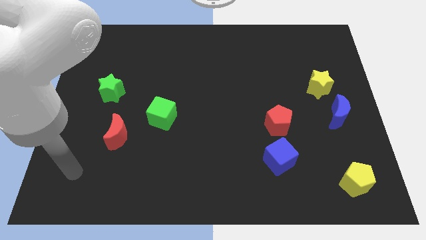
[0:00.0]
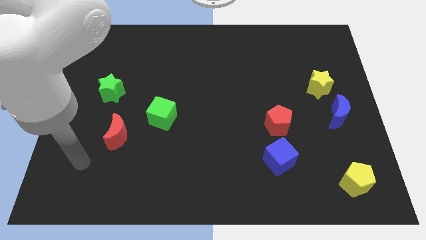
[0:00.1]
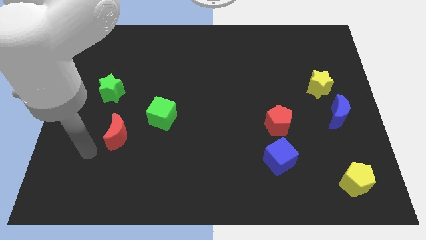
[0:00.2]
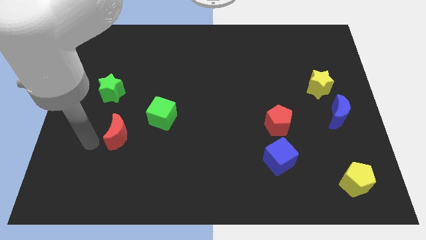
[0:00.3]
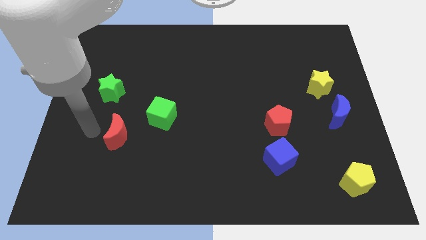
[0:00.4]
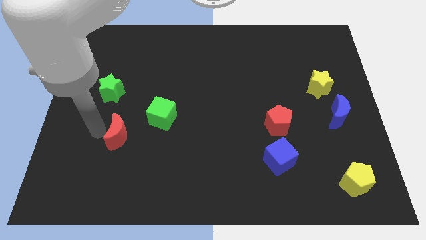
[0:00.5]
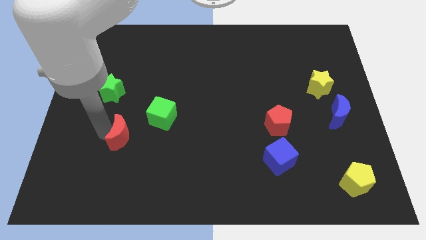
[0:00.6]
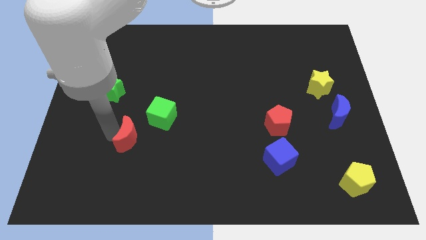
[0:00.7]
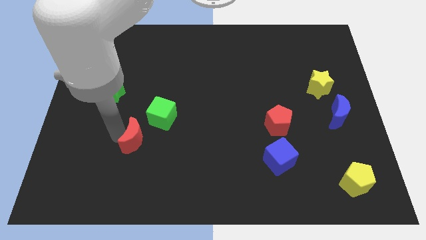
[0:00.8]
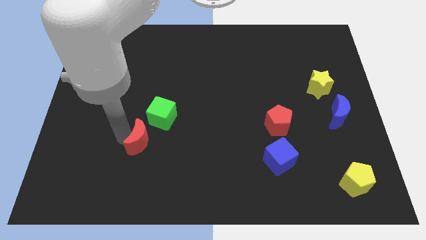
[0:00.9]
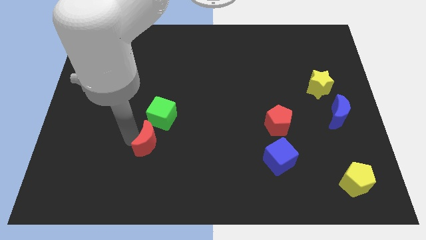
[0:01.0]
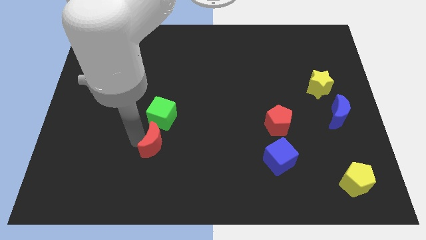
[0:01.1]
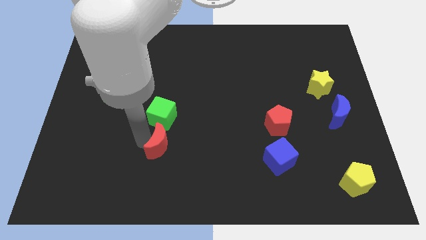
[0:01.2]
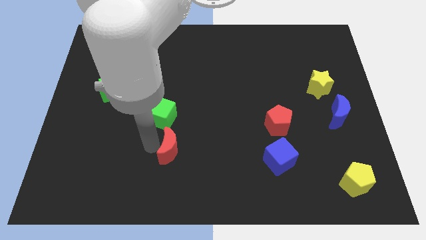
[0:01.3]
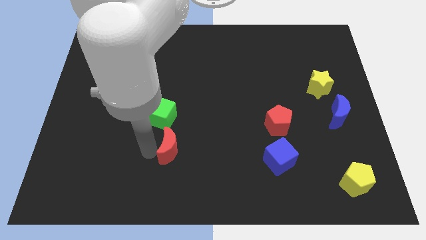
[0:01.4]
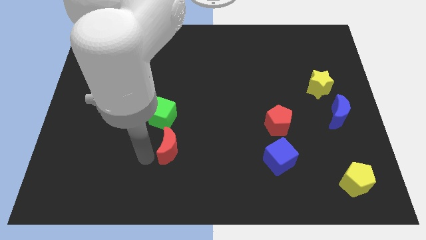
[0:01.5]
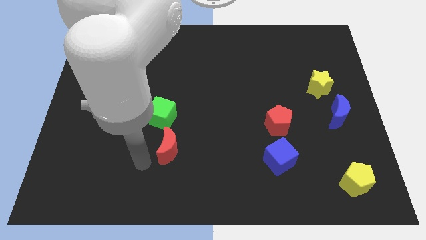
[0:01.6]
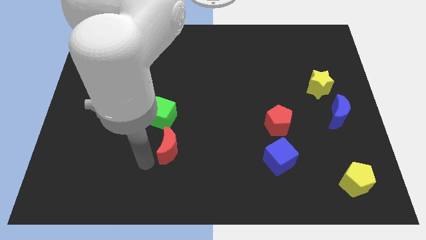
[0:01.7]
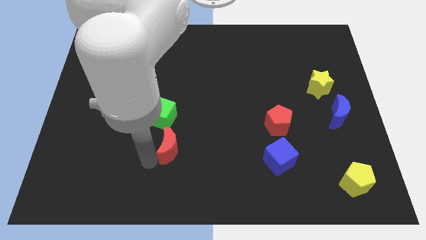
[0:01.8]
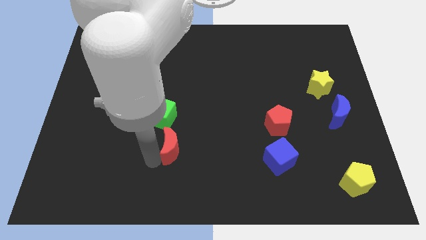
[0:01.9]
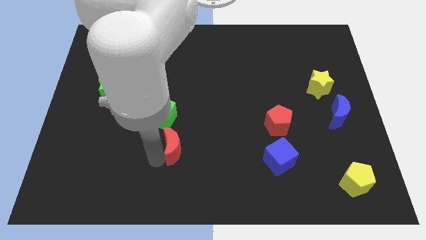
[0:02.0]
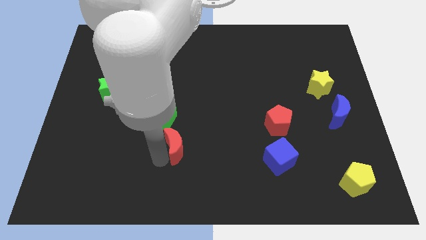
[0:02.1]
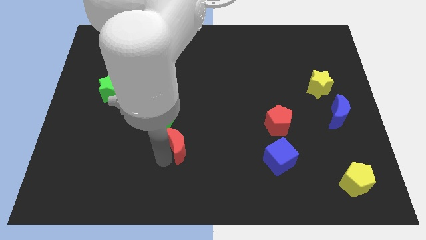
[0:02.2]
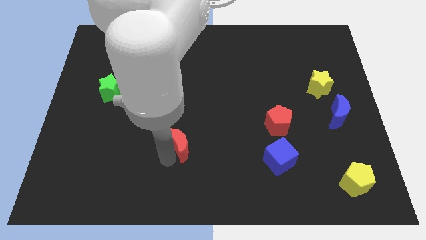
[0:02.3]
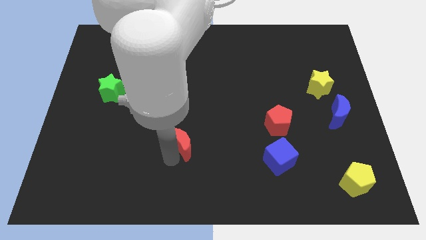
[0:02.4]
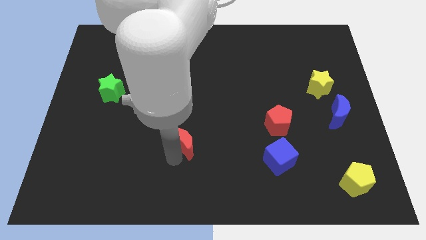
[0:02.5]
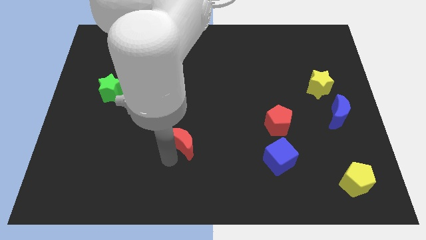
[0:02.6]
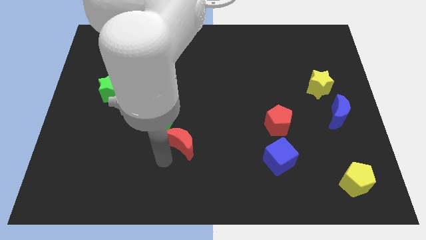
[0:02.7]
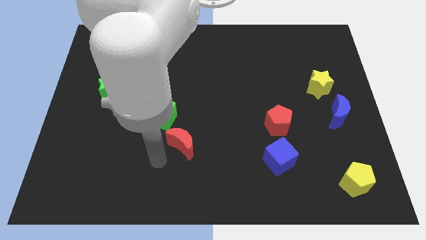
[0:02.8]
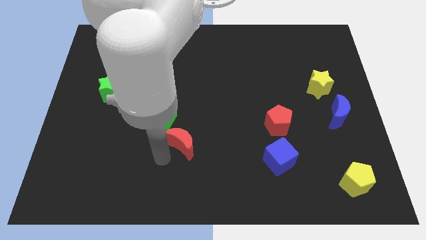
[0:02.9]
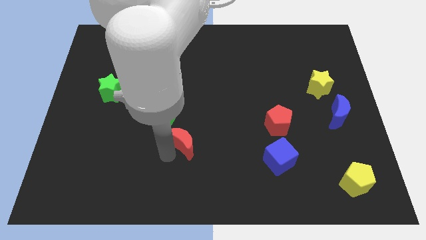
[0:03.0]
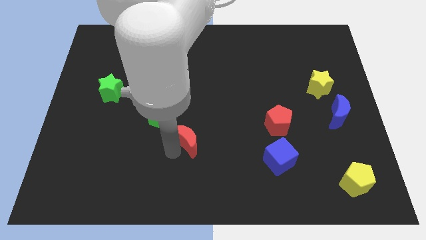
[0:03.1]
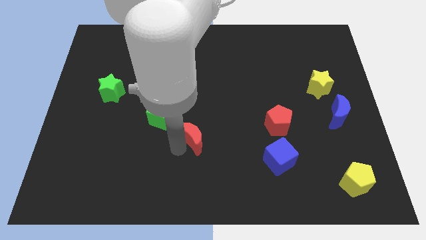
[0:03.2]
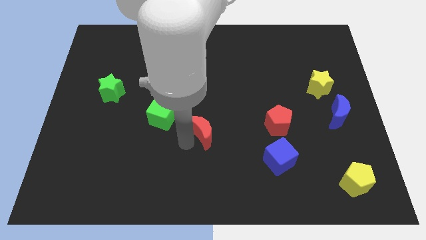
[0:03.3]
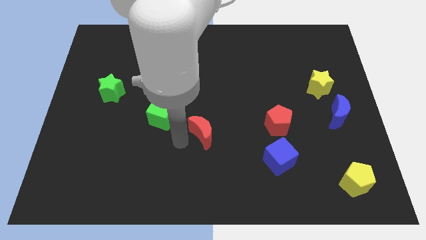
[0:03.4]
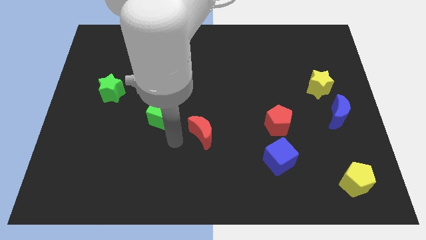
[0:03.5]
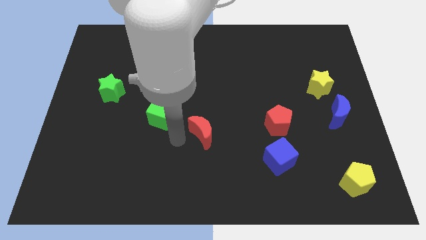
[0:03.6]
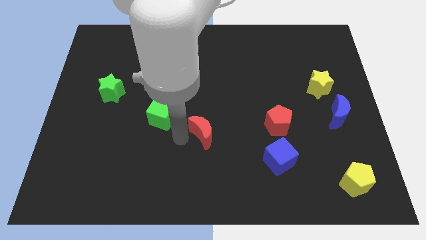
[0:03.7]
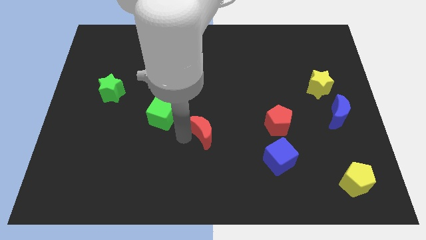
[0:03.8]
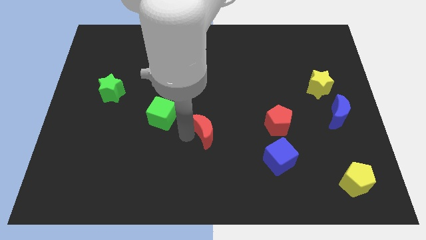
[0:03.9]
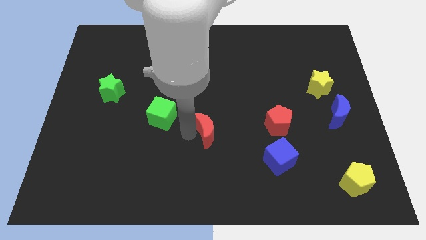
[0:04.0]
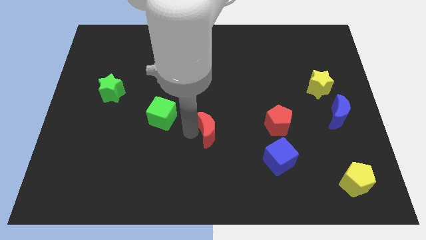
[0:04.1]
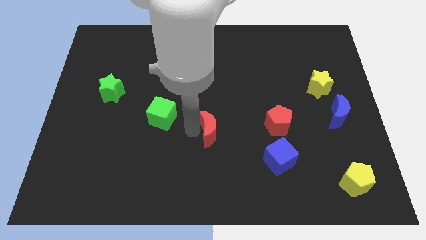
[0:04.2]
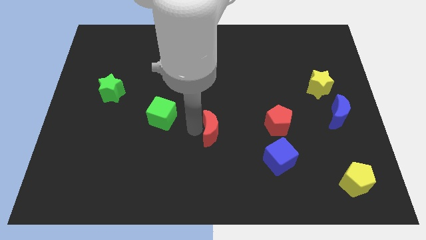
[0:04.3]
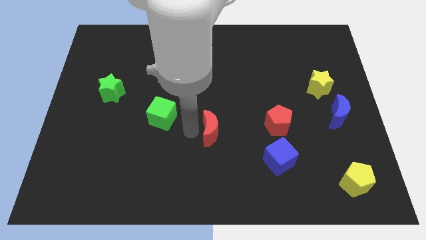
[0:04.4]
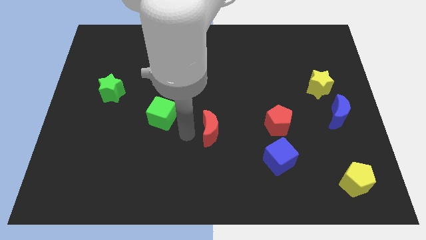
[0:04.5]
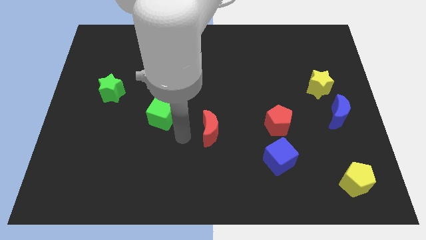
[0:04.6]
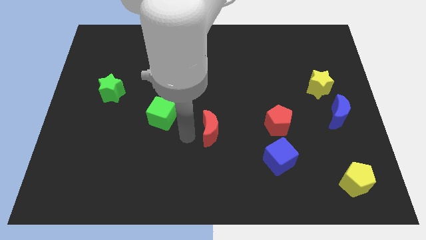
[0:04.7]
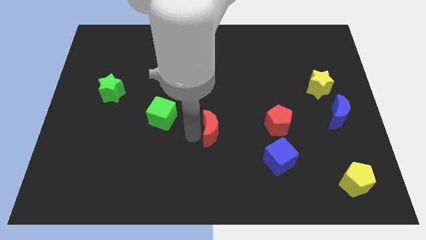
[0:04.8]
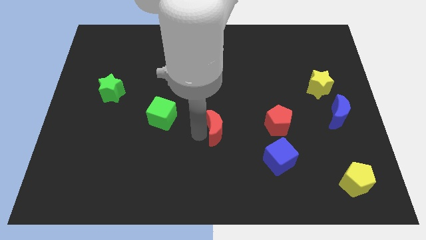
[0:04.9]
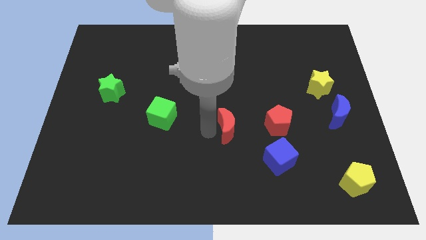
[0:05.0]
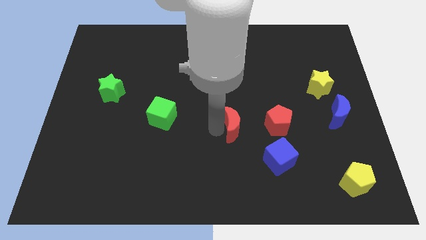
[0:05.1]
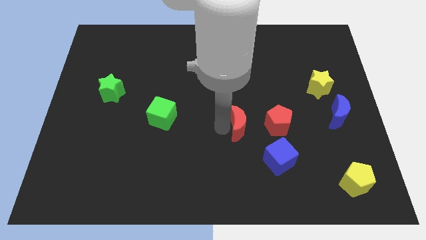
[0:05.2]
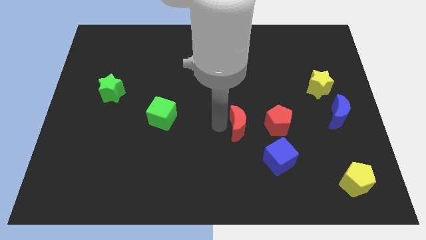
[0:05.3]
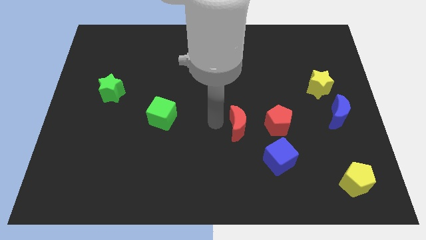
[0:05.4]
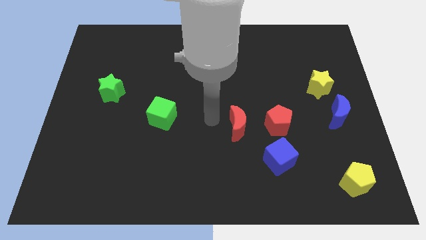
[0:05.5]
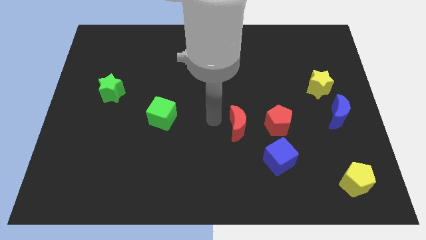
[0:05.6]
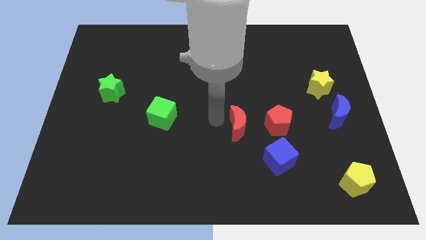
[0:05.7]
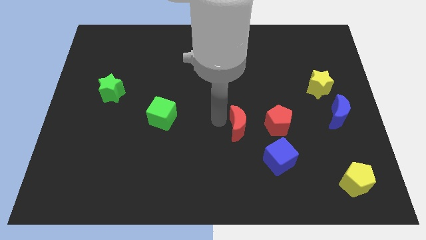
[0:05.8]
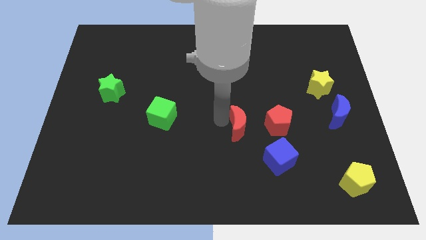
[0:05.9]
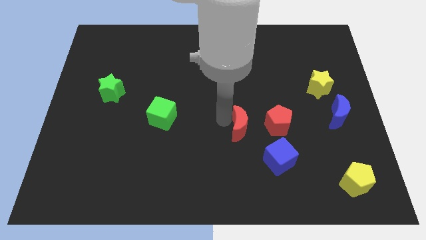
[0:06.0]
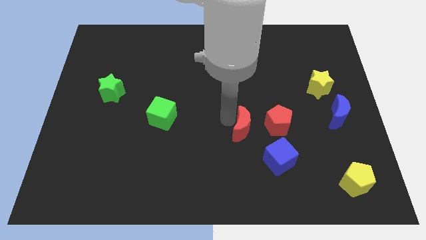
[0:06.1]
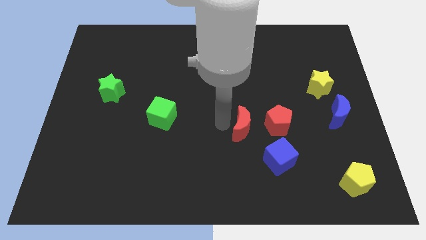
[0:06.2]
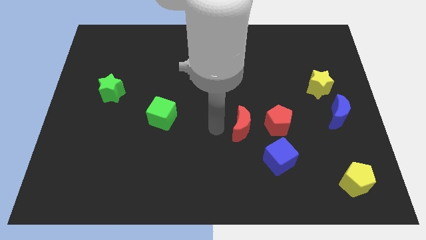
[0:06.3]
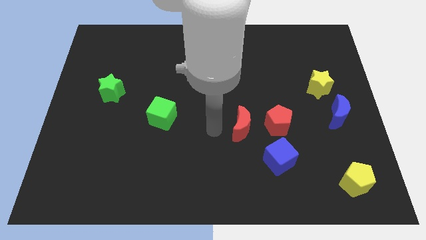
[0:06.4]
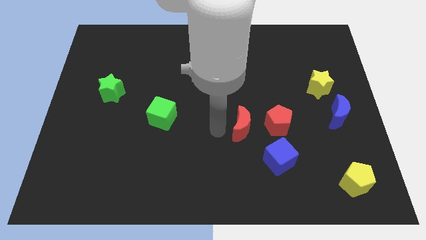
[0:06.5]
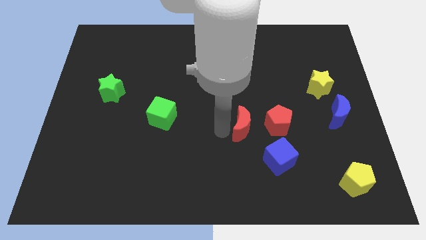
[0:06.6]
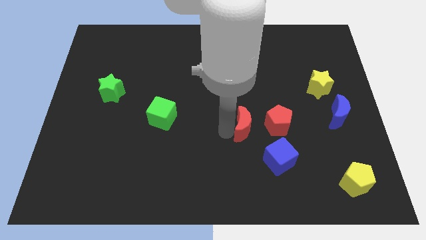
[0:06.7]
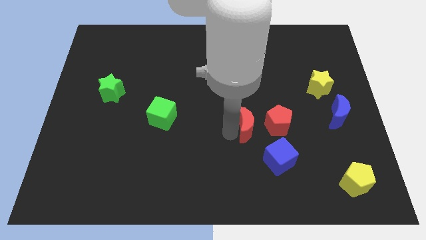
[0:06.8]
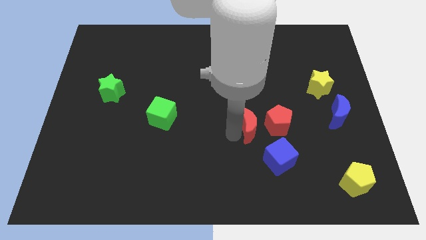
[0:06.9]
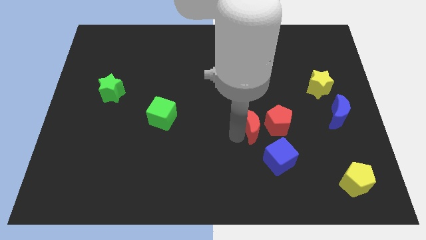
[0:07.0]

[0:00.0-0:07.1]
push the red moon next to the red pentagon

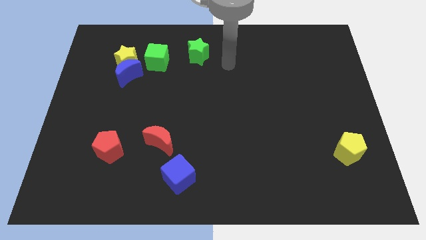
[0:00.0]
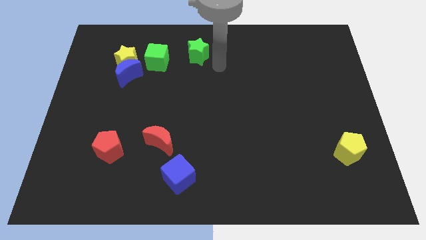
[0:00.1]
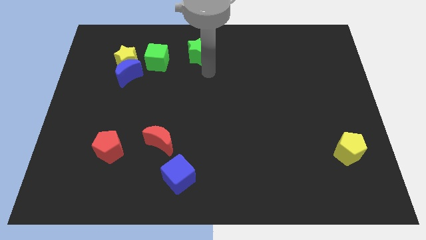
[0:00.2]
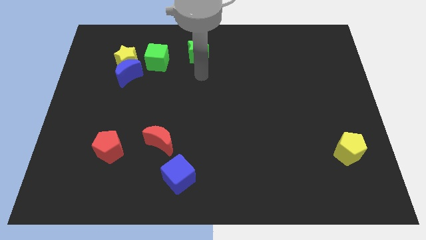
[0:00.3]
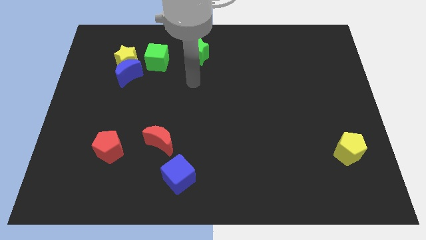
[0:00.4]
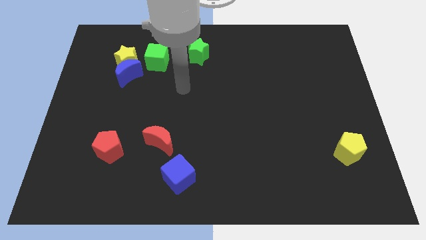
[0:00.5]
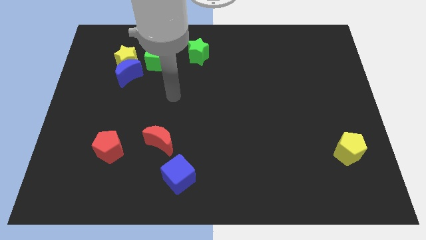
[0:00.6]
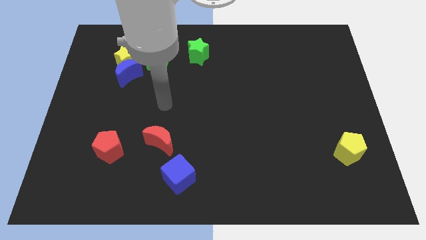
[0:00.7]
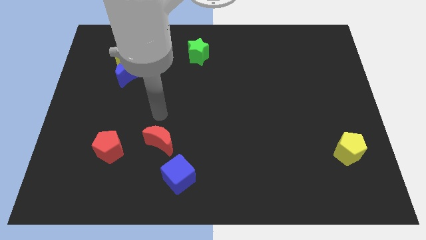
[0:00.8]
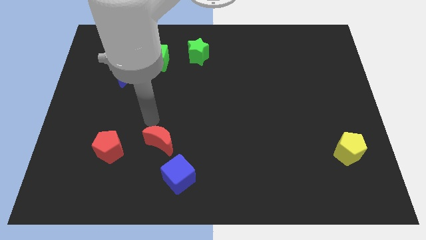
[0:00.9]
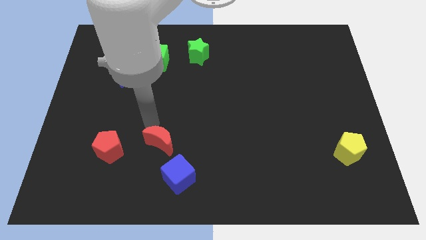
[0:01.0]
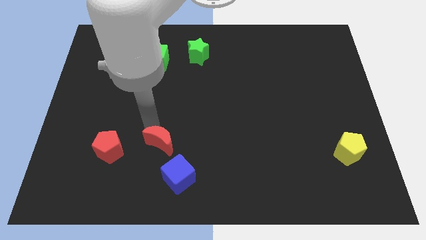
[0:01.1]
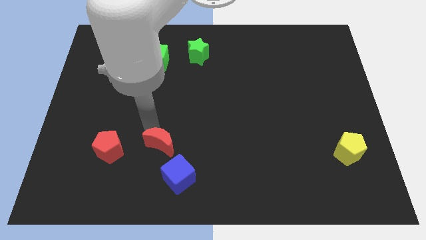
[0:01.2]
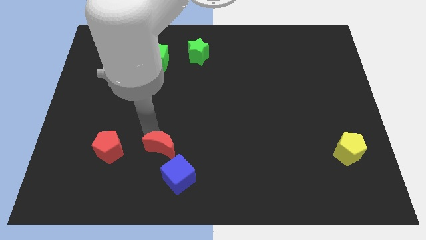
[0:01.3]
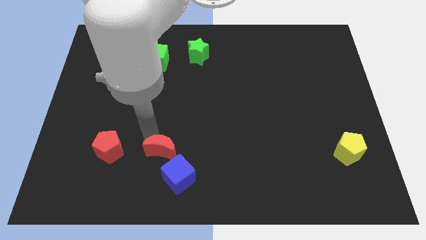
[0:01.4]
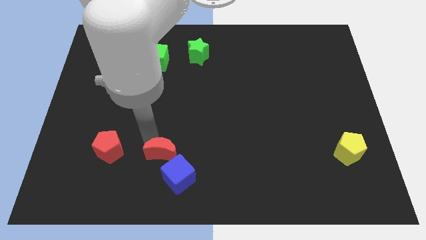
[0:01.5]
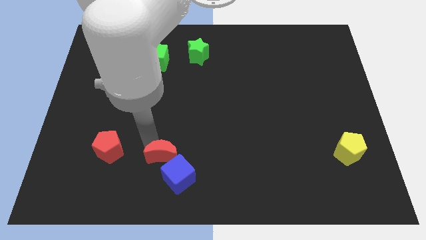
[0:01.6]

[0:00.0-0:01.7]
move the red moon towards the blue cube
